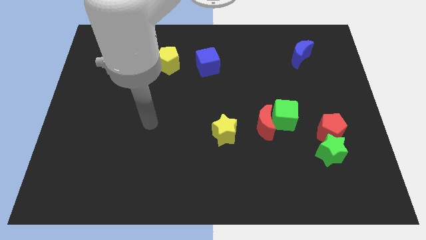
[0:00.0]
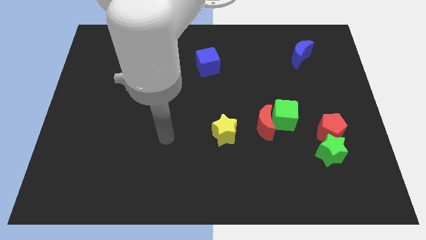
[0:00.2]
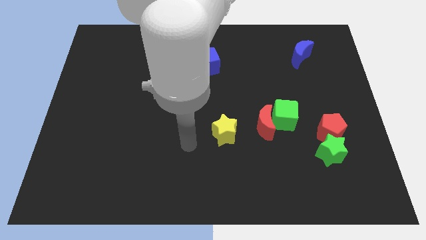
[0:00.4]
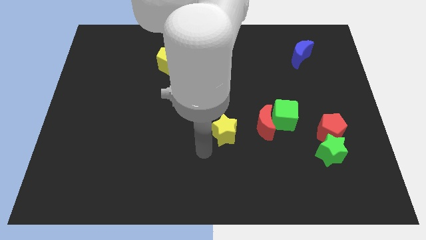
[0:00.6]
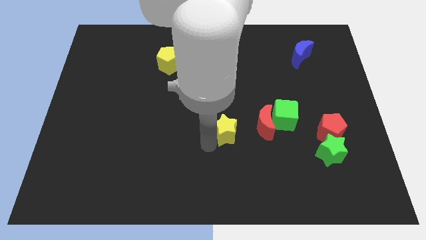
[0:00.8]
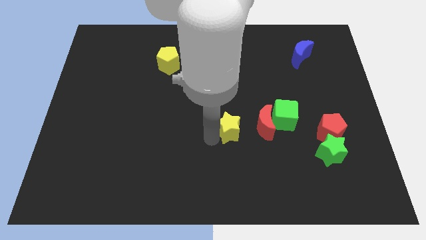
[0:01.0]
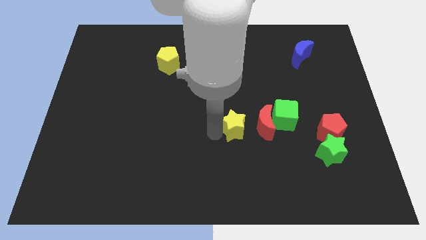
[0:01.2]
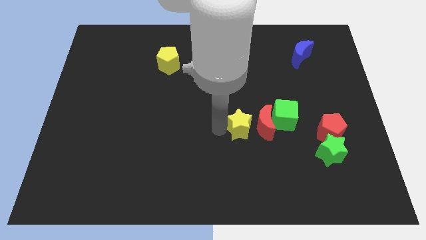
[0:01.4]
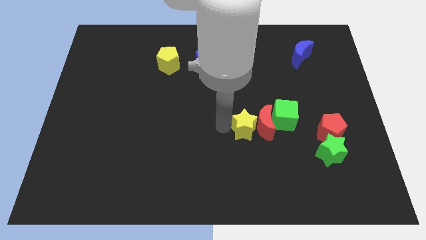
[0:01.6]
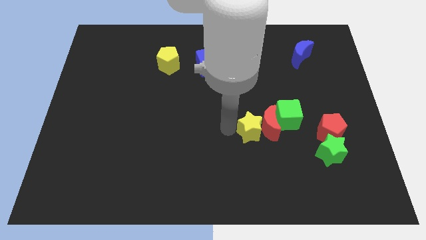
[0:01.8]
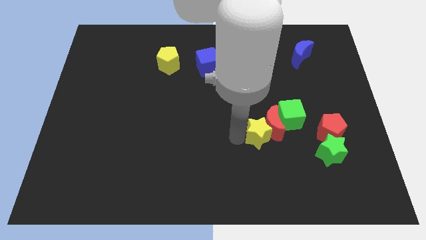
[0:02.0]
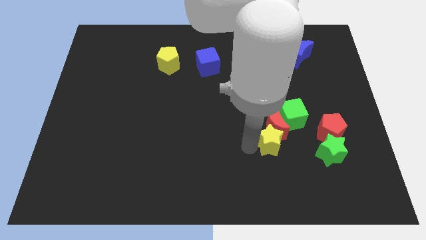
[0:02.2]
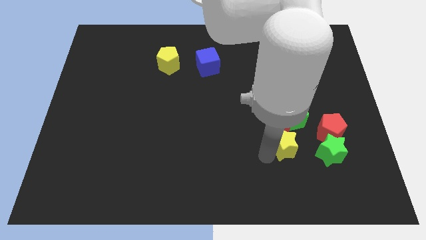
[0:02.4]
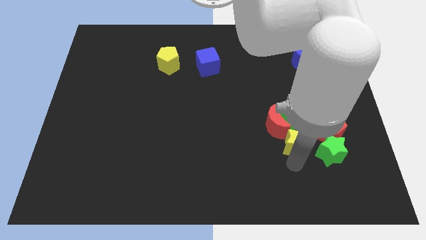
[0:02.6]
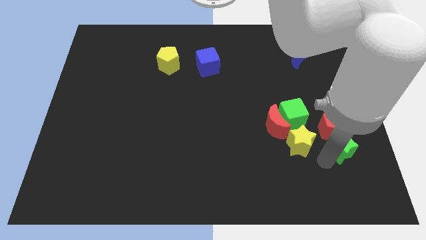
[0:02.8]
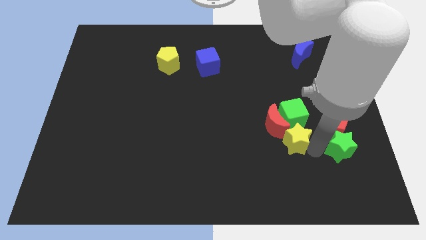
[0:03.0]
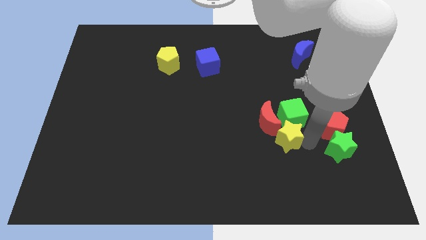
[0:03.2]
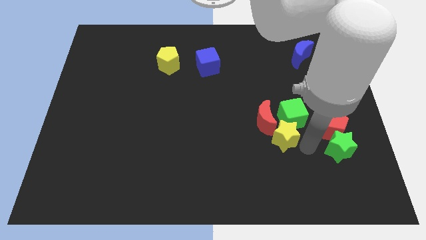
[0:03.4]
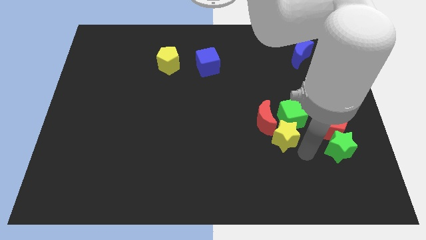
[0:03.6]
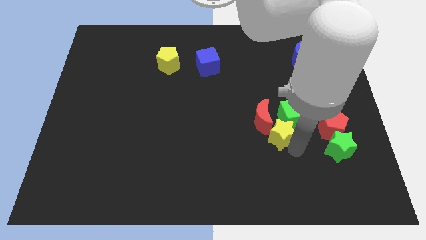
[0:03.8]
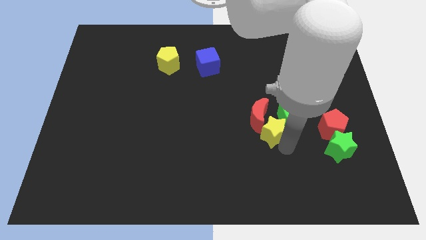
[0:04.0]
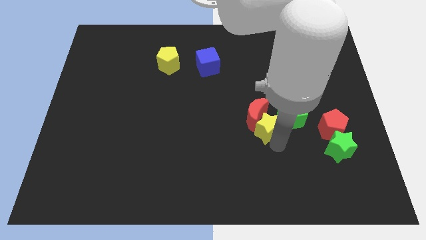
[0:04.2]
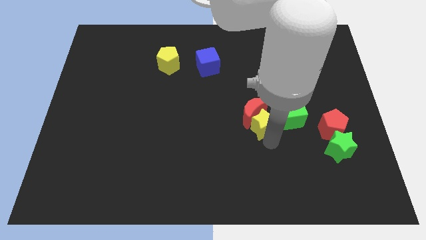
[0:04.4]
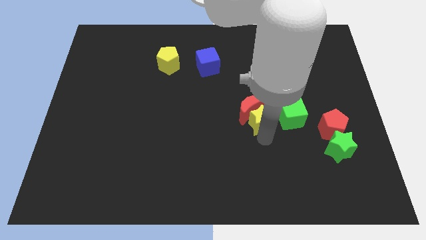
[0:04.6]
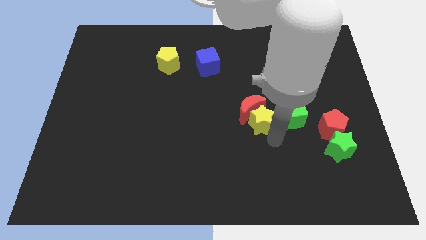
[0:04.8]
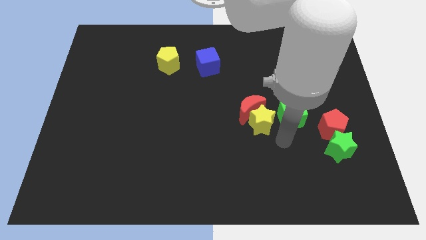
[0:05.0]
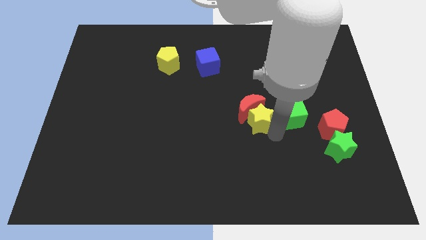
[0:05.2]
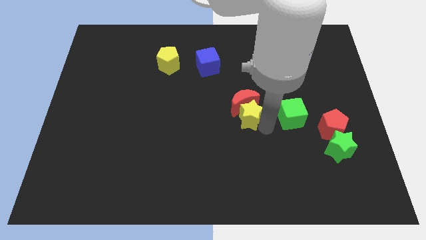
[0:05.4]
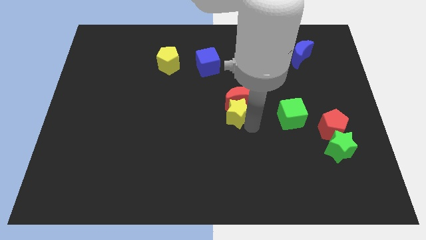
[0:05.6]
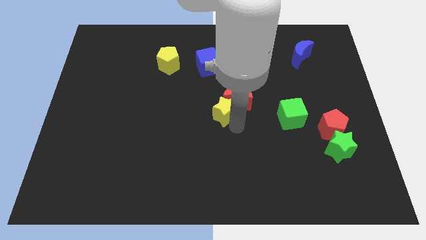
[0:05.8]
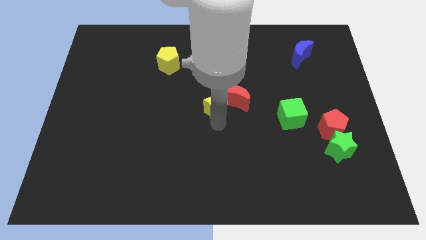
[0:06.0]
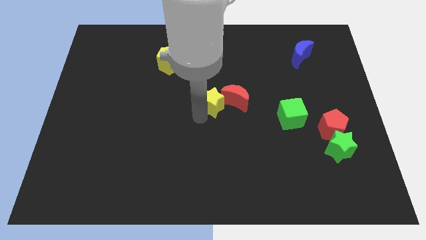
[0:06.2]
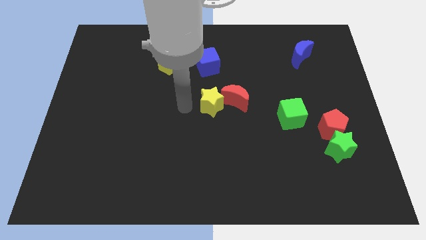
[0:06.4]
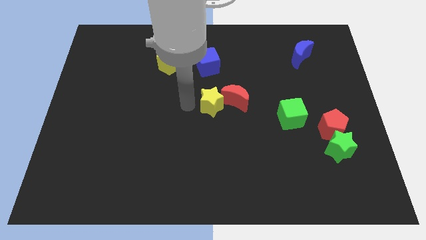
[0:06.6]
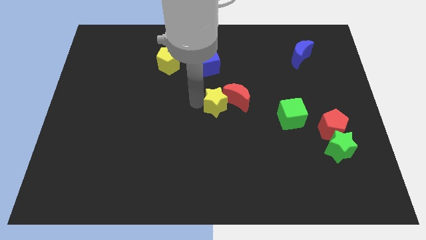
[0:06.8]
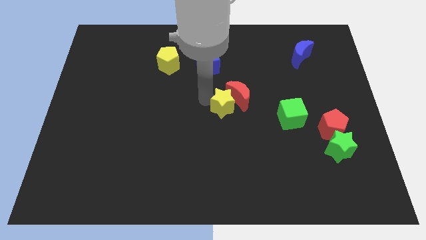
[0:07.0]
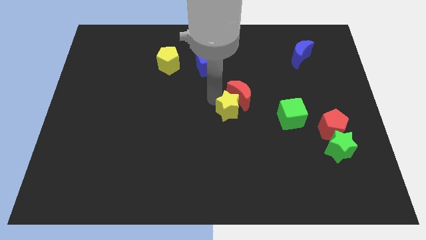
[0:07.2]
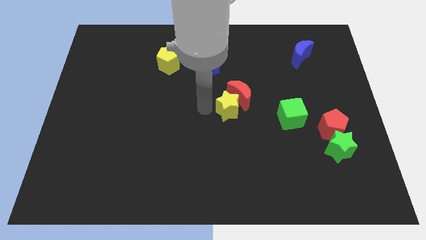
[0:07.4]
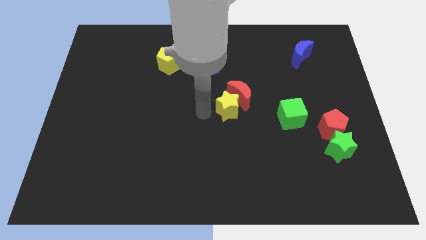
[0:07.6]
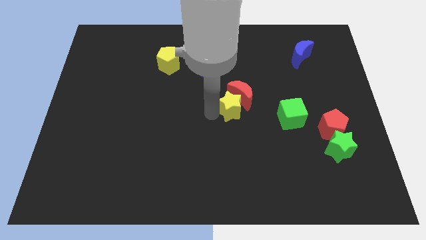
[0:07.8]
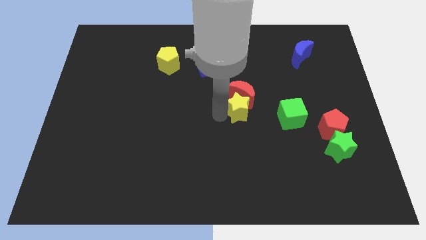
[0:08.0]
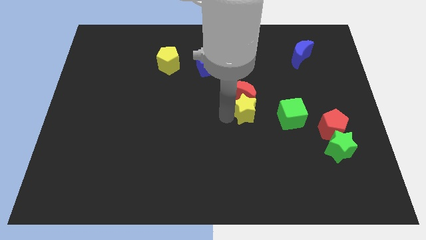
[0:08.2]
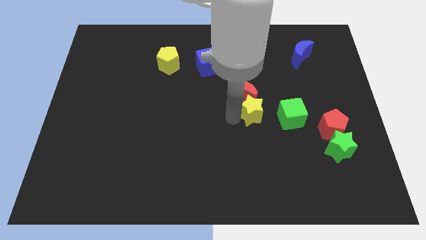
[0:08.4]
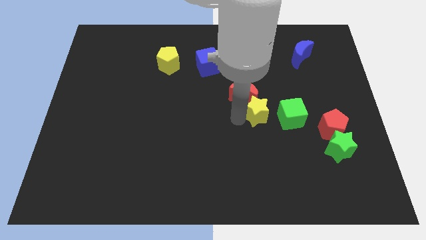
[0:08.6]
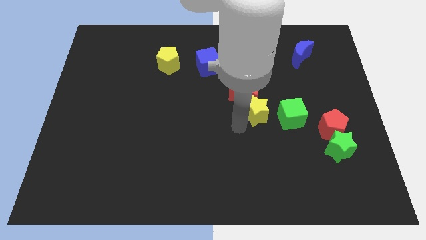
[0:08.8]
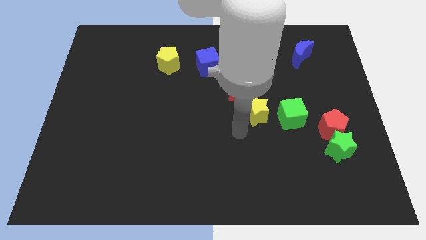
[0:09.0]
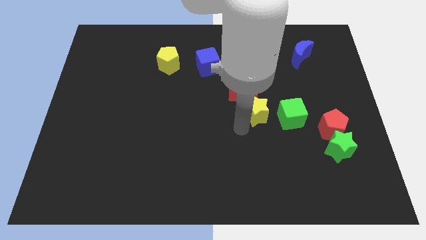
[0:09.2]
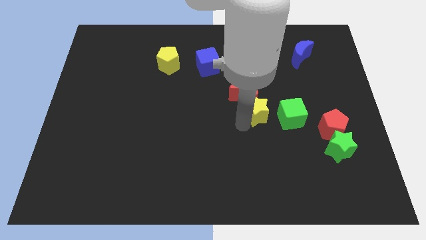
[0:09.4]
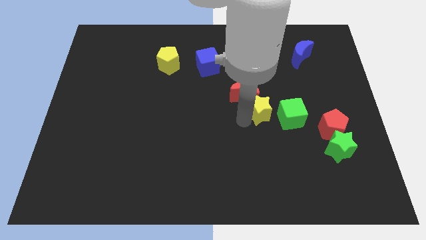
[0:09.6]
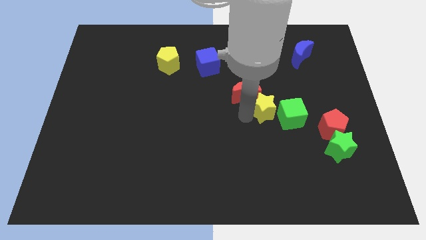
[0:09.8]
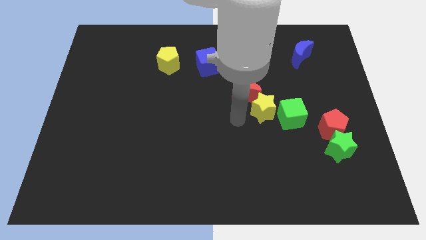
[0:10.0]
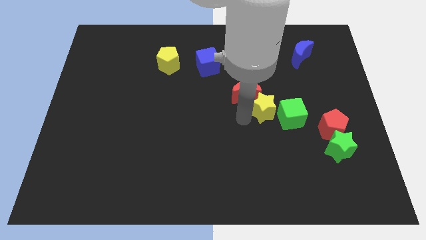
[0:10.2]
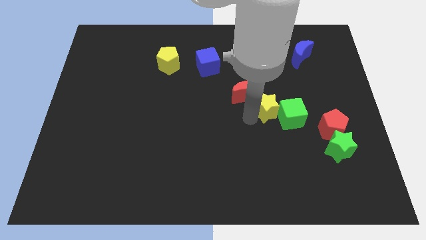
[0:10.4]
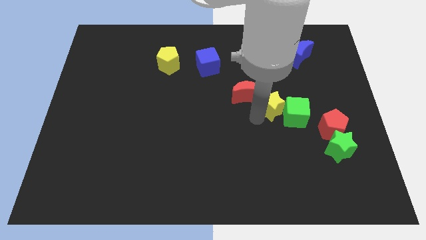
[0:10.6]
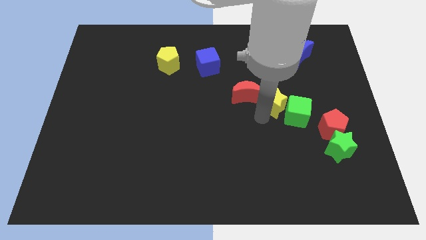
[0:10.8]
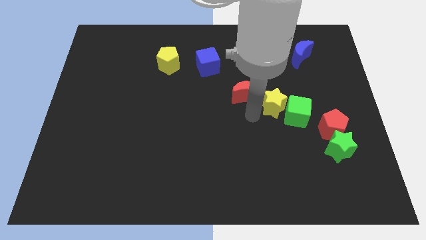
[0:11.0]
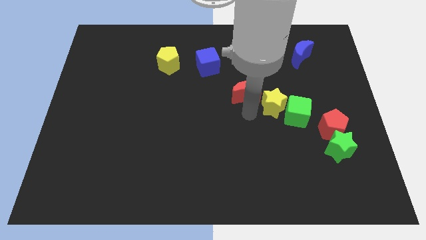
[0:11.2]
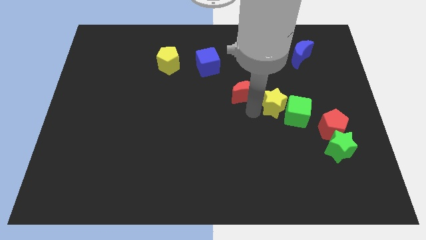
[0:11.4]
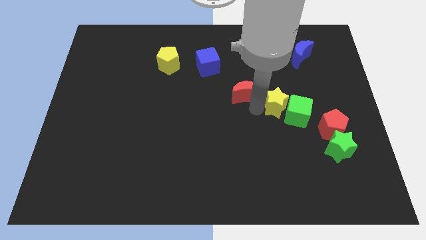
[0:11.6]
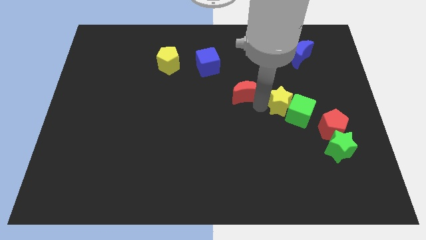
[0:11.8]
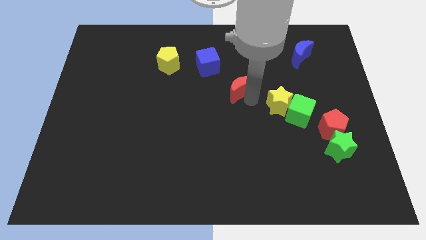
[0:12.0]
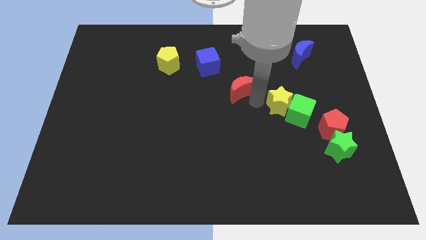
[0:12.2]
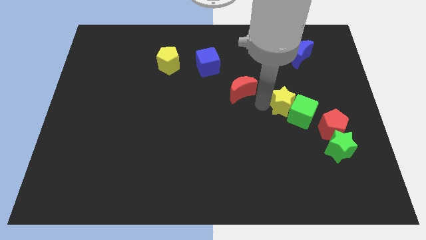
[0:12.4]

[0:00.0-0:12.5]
move the yellow star to the top left side of the red pentagon
